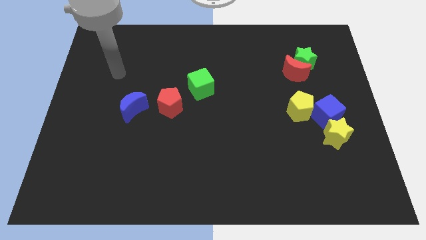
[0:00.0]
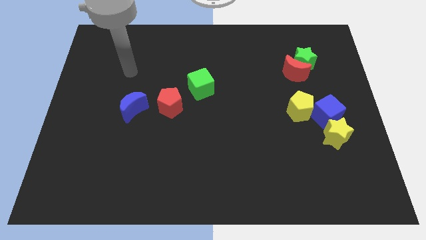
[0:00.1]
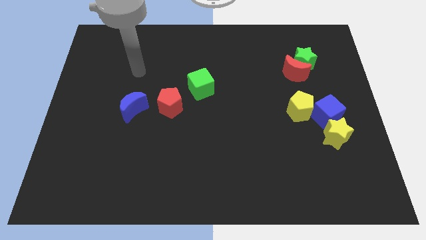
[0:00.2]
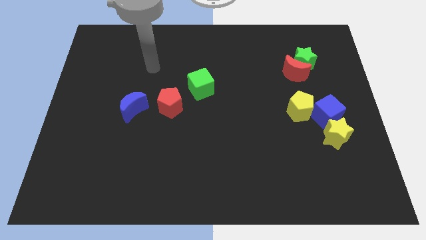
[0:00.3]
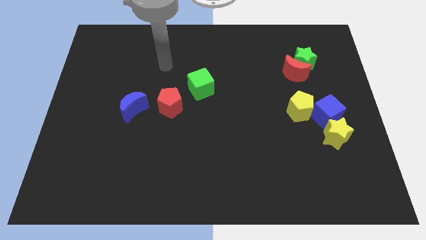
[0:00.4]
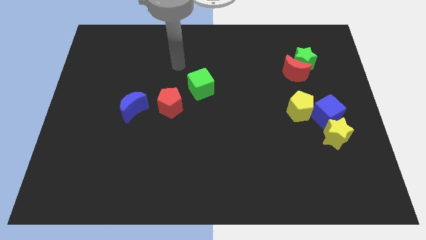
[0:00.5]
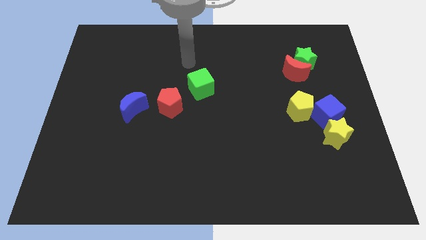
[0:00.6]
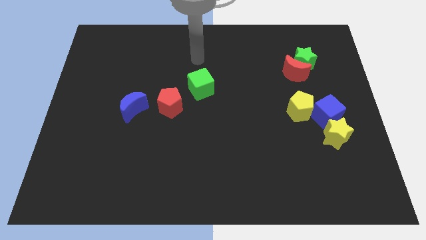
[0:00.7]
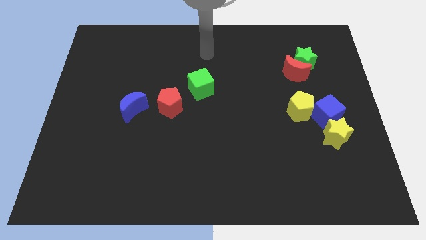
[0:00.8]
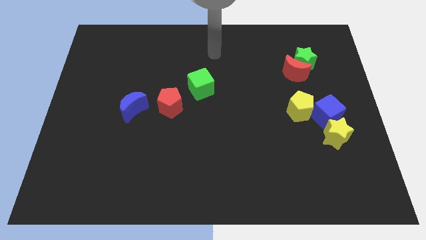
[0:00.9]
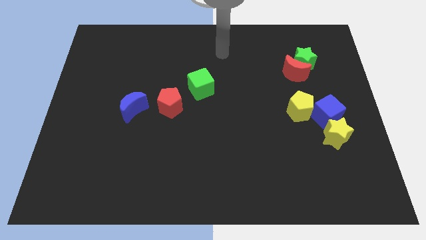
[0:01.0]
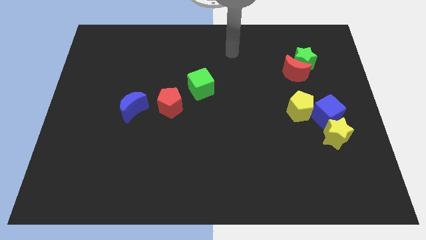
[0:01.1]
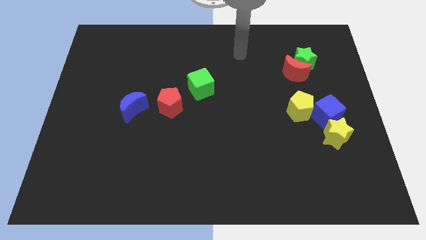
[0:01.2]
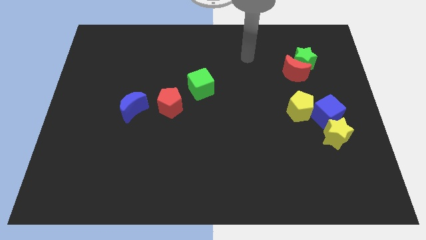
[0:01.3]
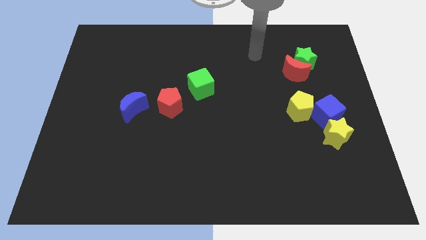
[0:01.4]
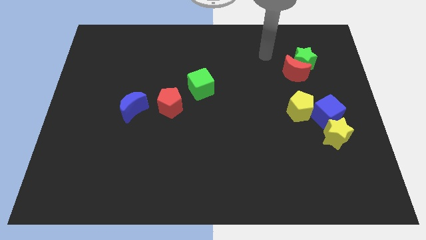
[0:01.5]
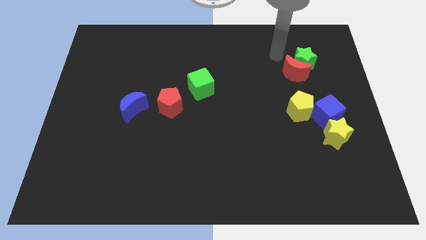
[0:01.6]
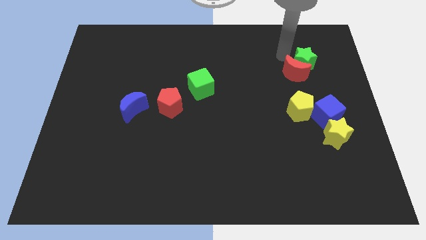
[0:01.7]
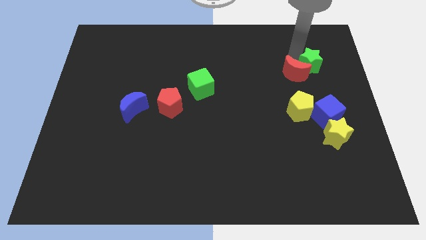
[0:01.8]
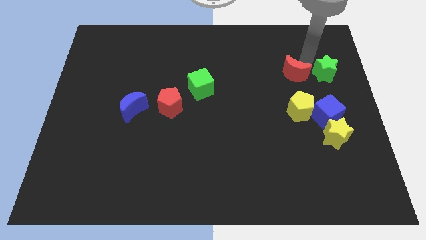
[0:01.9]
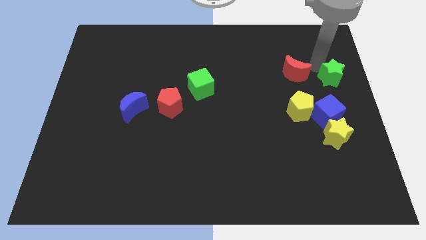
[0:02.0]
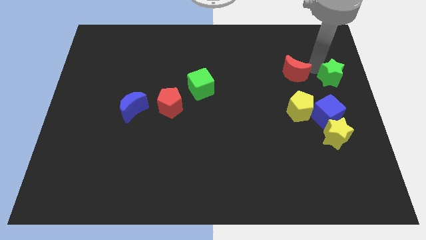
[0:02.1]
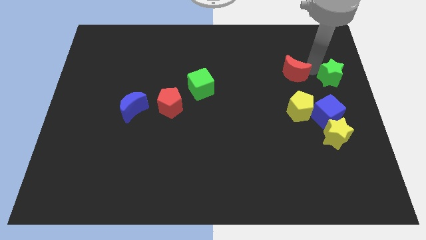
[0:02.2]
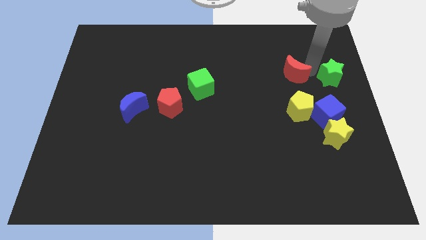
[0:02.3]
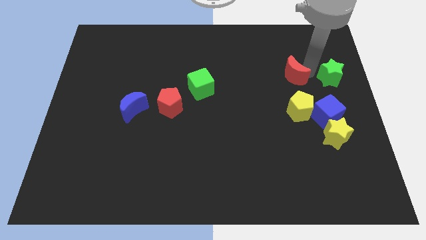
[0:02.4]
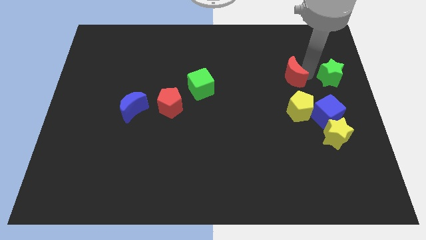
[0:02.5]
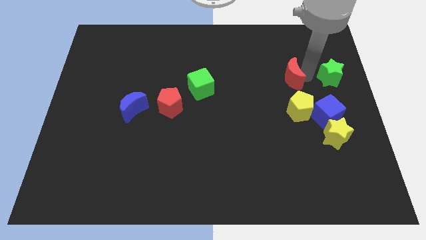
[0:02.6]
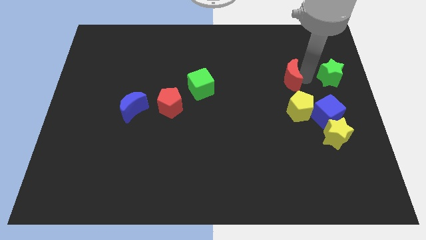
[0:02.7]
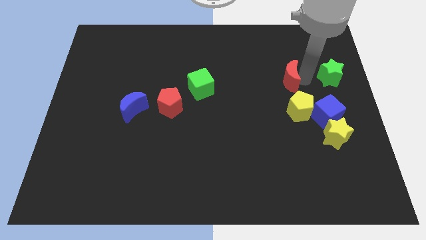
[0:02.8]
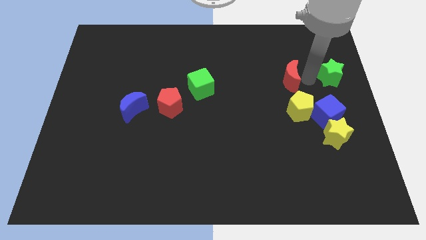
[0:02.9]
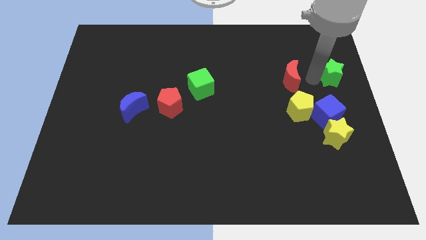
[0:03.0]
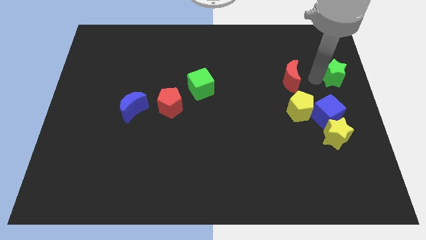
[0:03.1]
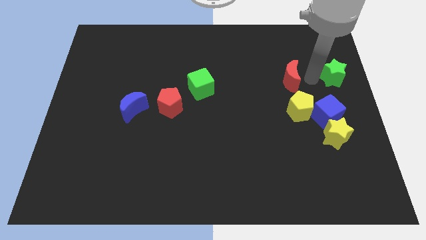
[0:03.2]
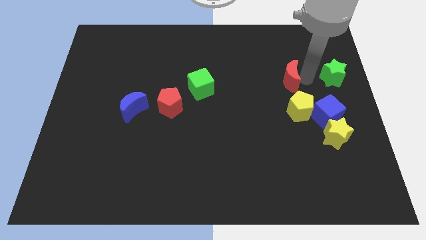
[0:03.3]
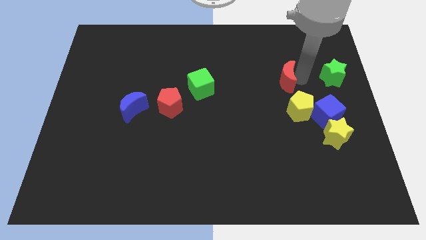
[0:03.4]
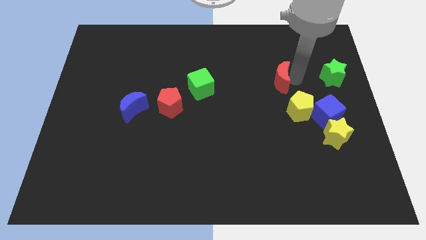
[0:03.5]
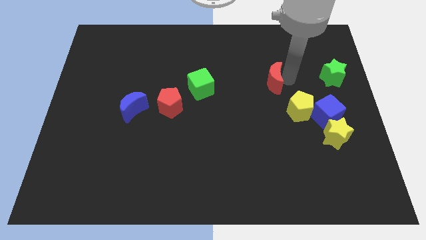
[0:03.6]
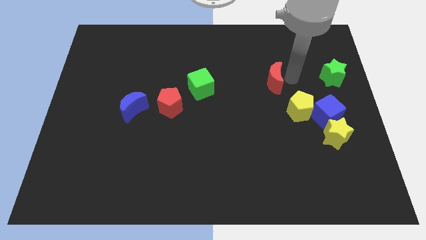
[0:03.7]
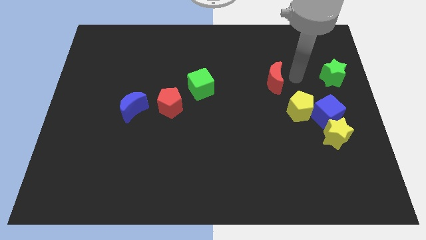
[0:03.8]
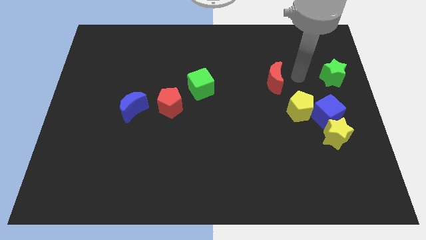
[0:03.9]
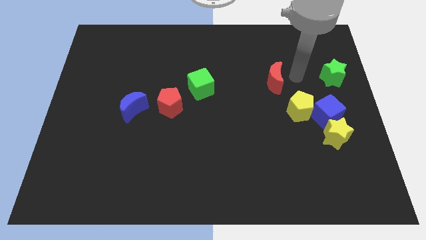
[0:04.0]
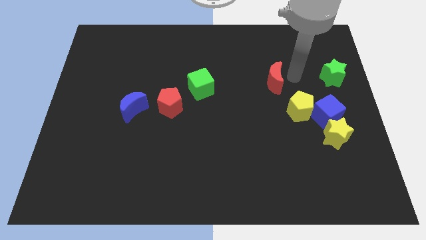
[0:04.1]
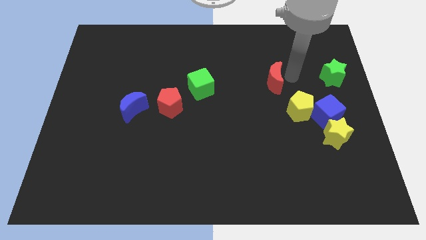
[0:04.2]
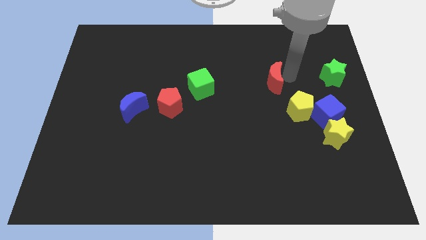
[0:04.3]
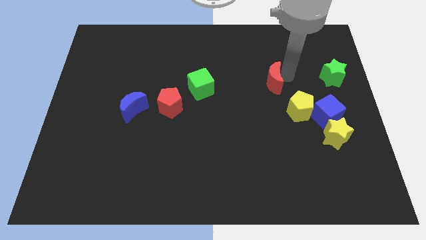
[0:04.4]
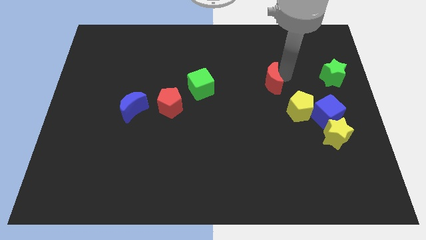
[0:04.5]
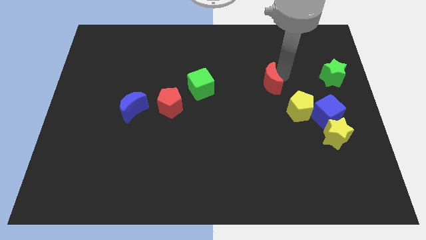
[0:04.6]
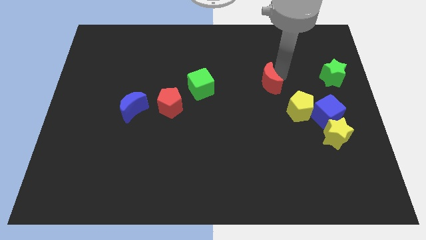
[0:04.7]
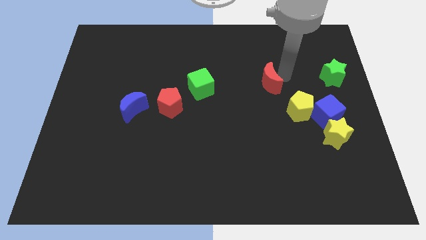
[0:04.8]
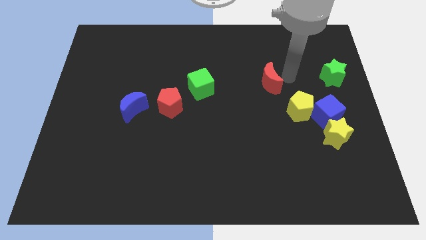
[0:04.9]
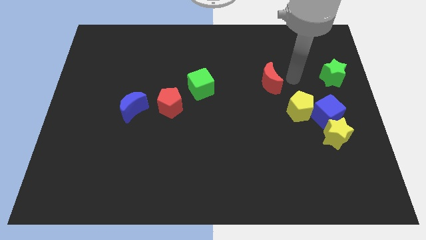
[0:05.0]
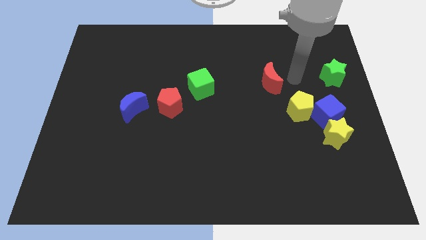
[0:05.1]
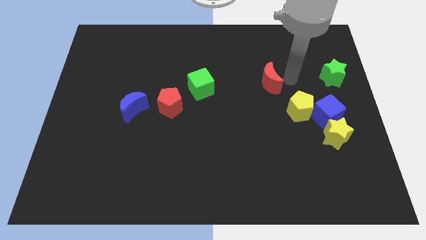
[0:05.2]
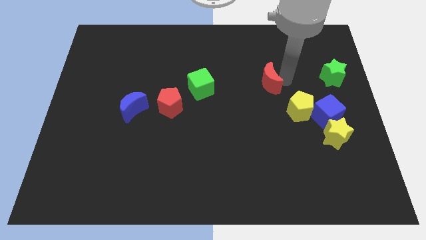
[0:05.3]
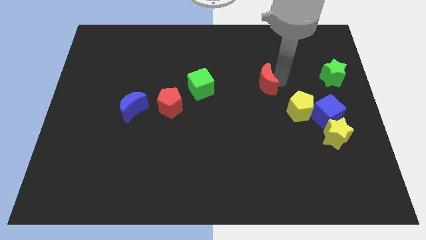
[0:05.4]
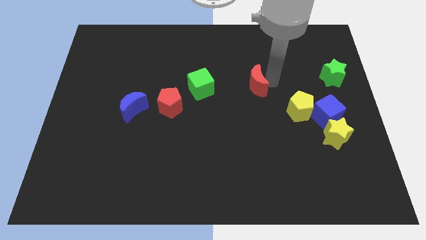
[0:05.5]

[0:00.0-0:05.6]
push the red moon to the middle
